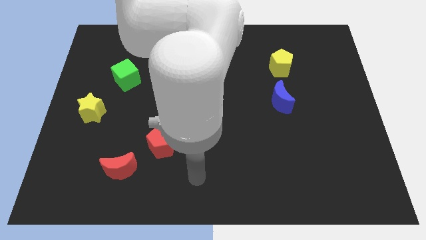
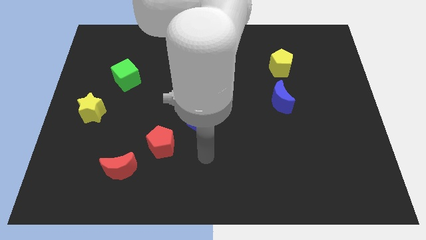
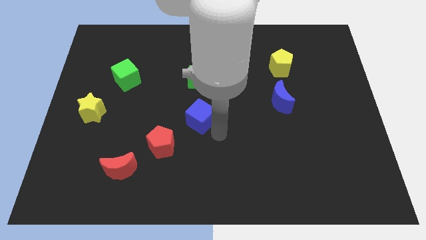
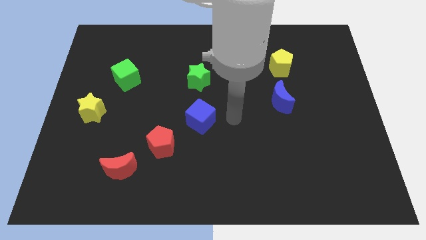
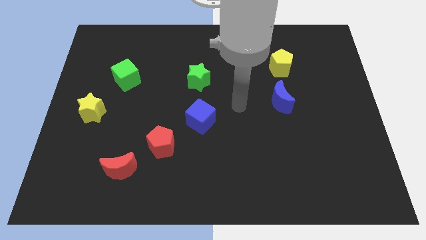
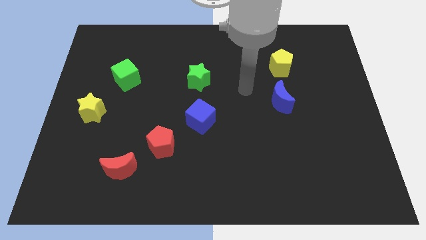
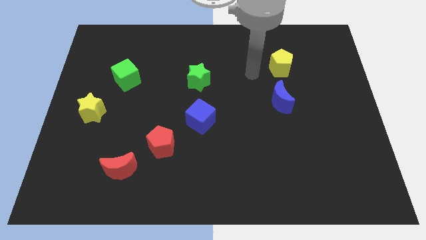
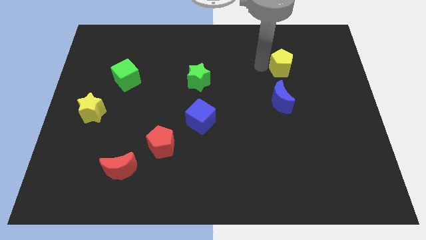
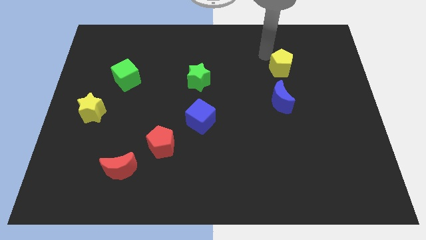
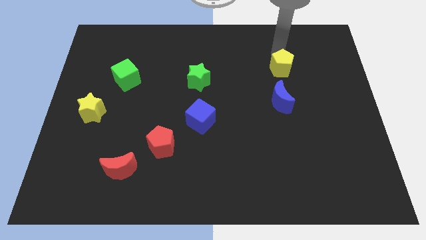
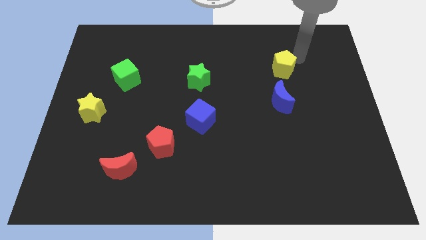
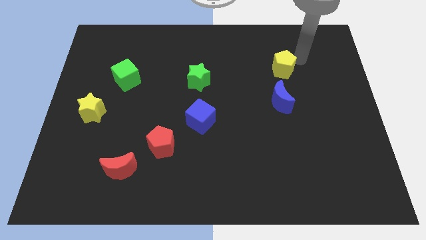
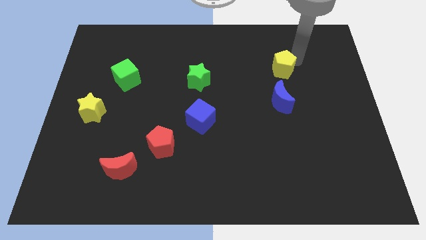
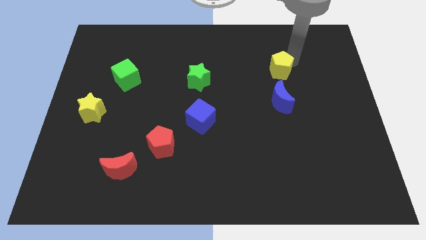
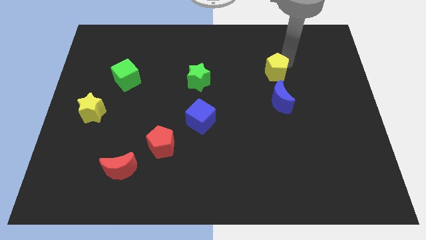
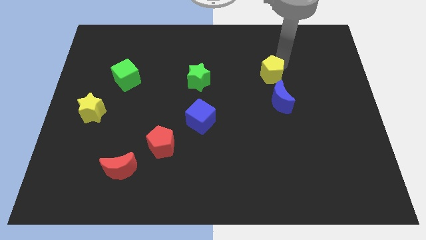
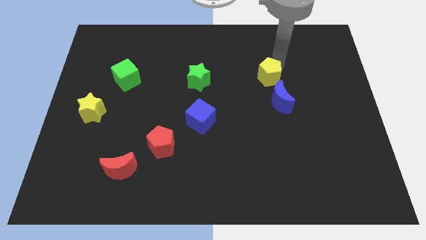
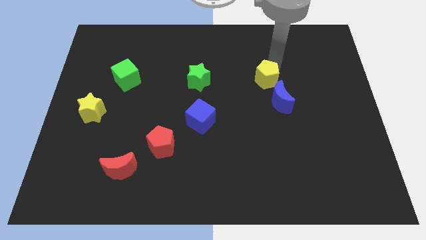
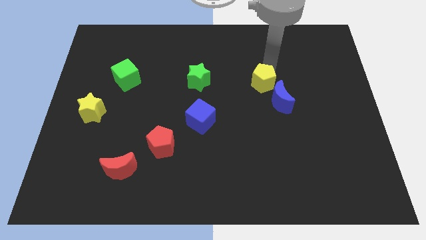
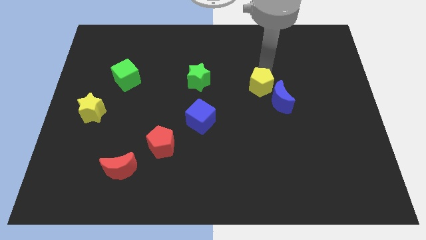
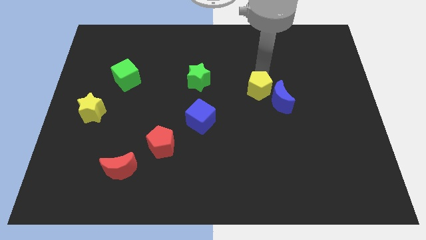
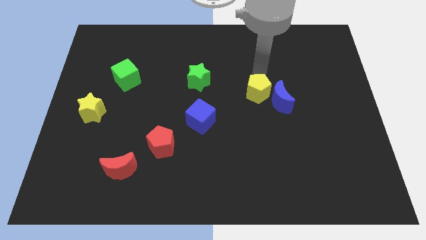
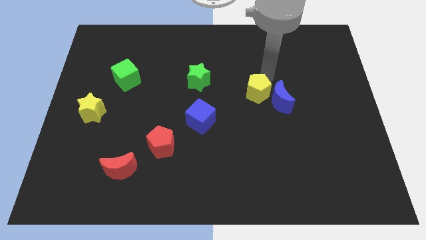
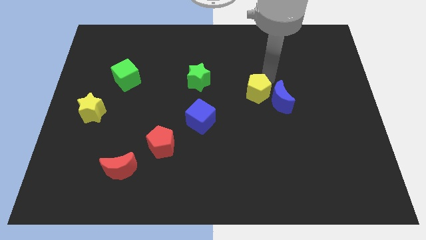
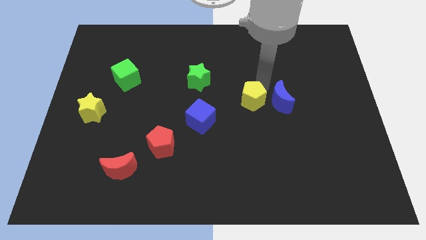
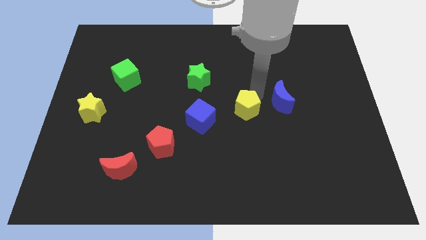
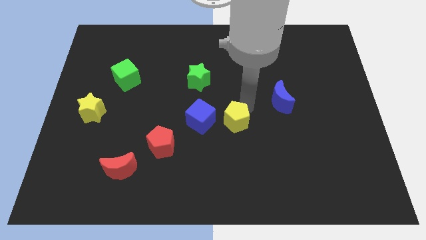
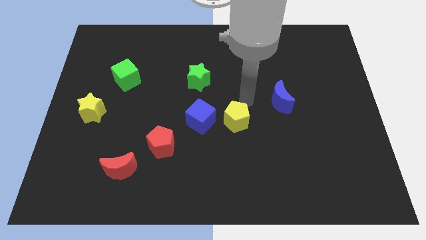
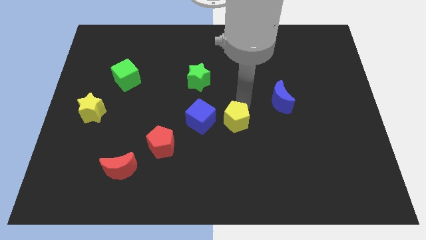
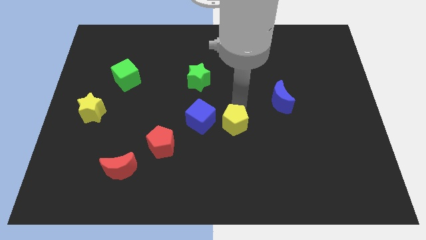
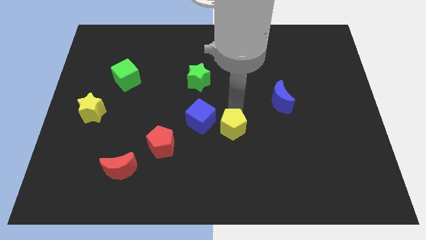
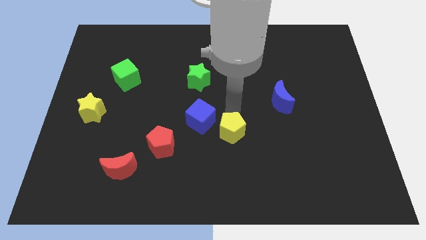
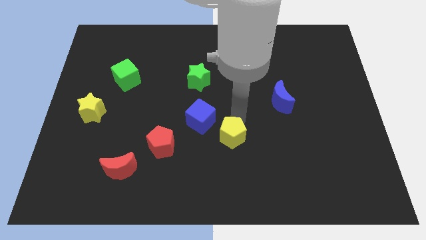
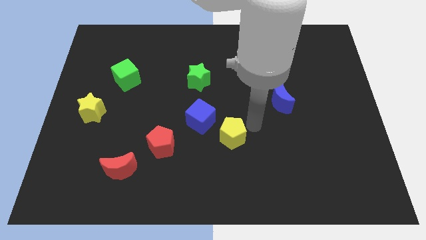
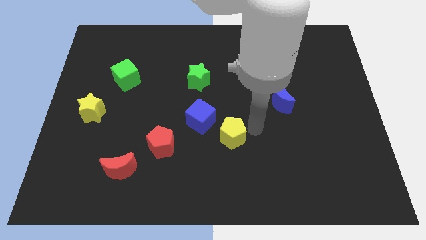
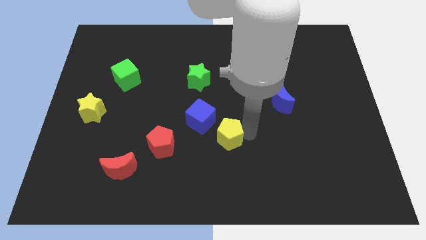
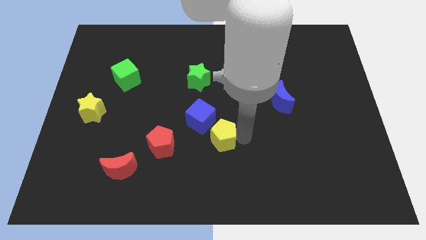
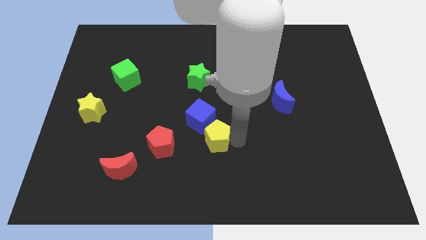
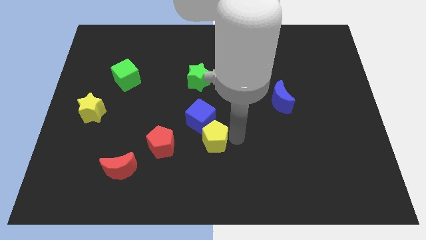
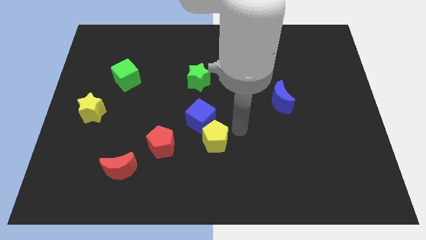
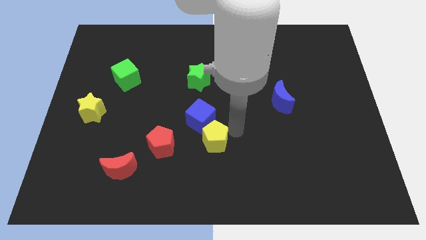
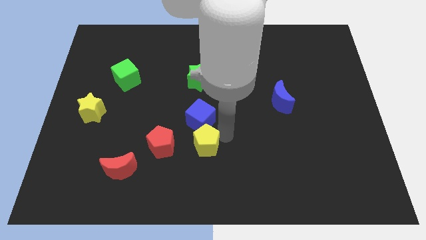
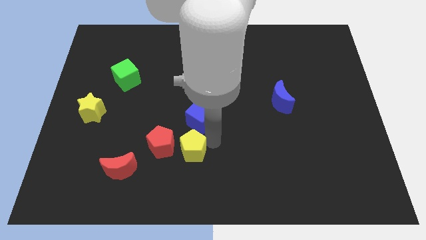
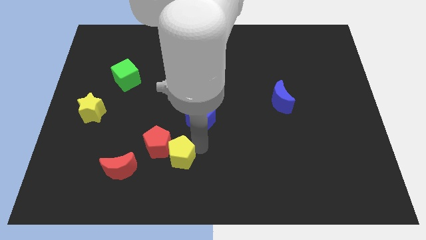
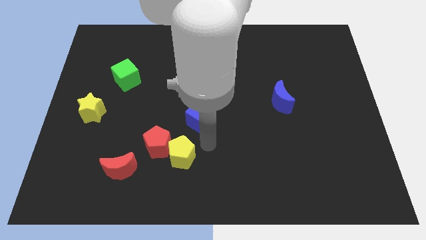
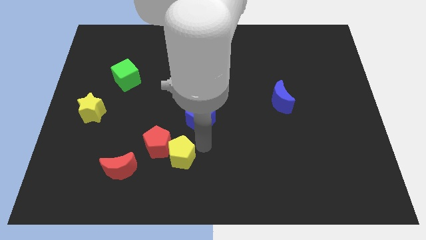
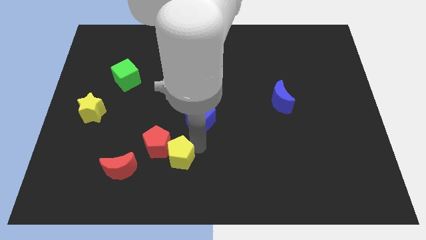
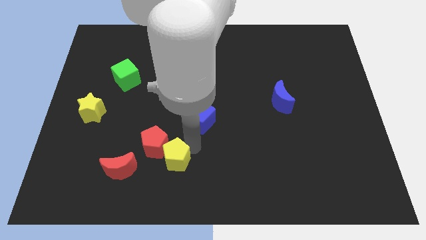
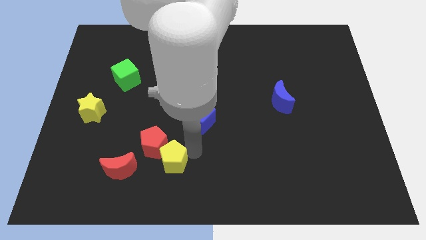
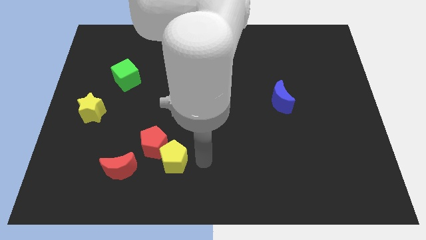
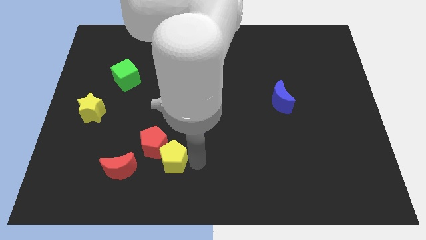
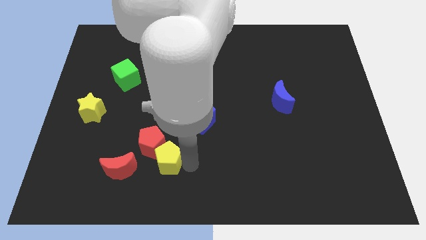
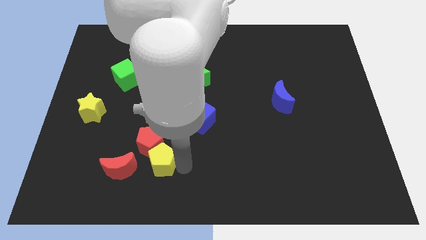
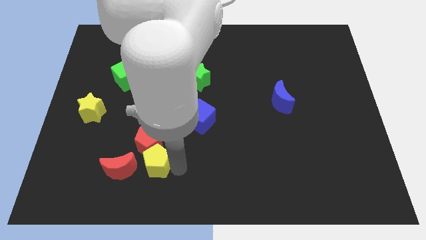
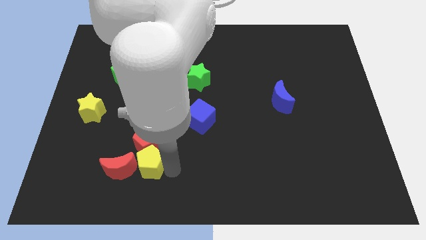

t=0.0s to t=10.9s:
push the yellow pentagon next to the red moon

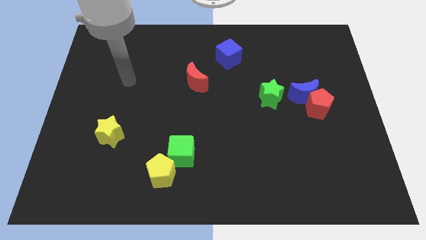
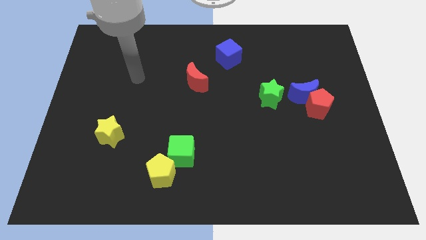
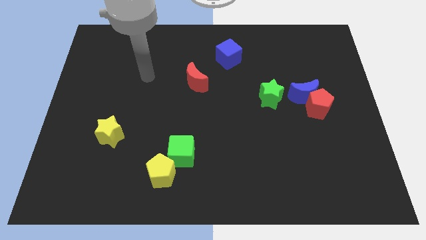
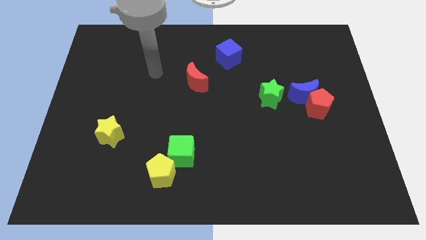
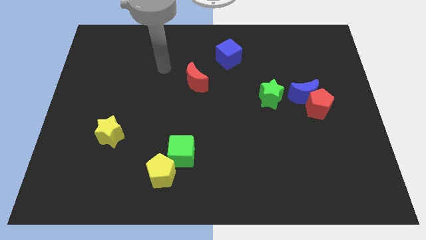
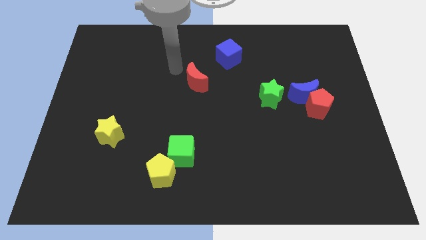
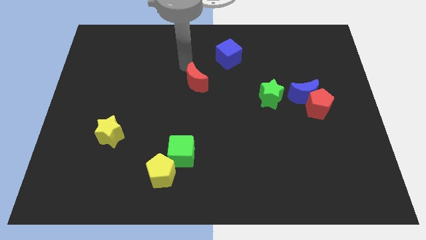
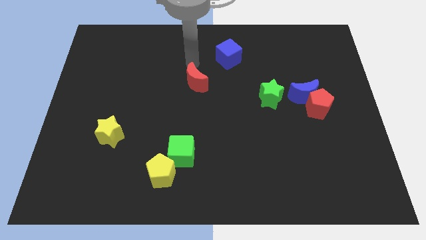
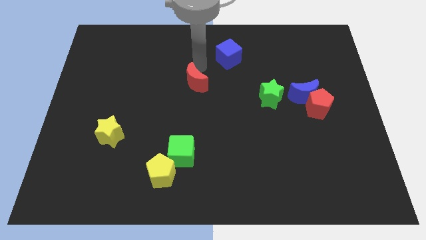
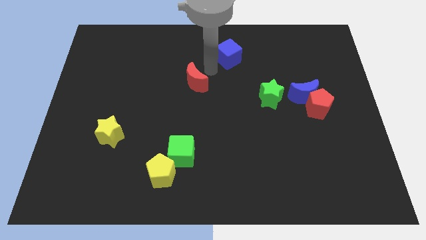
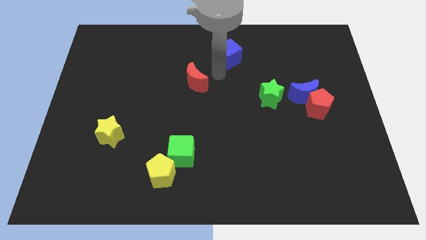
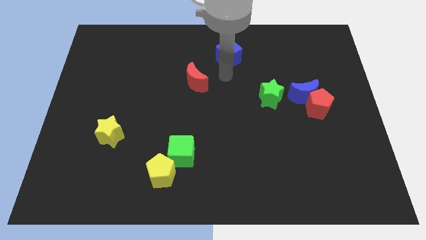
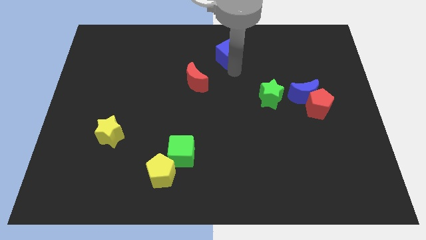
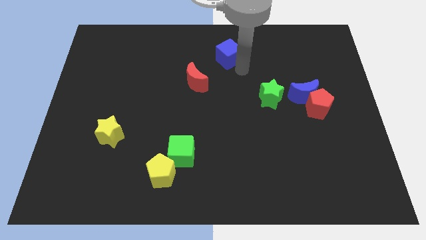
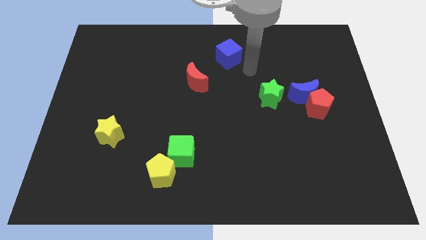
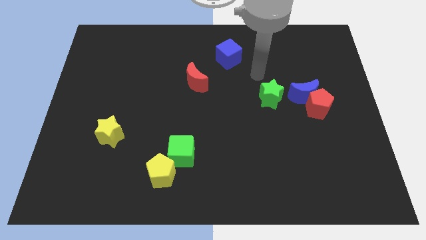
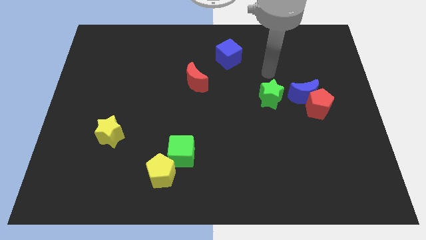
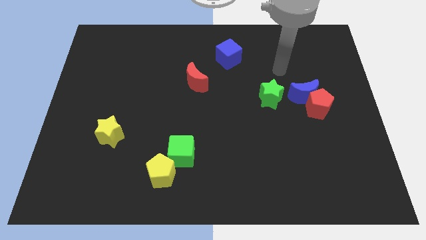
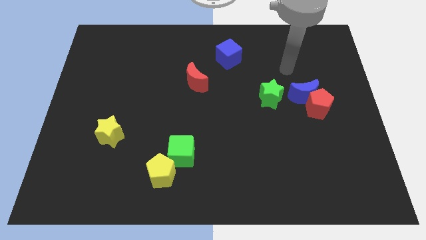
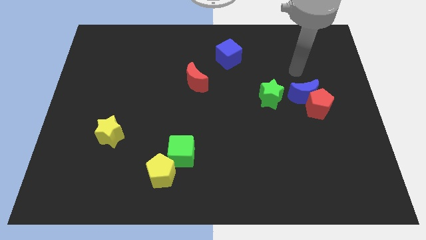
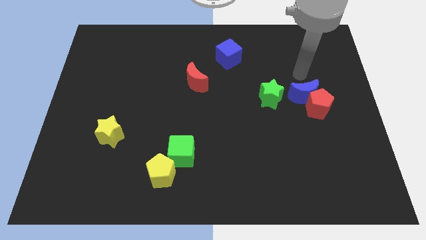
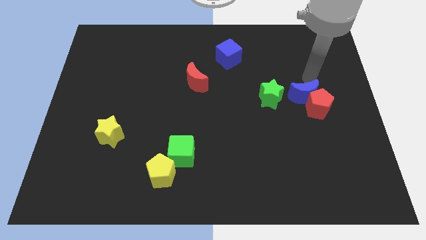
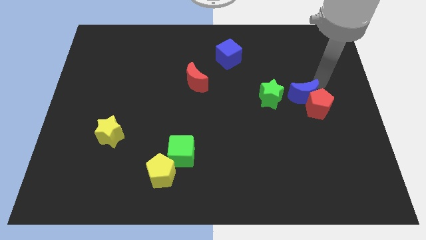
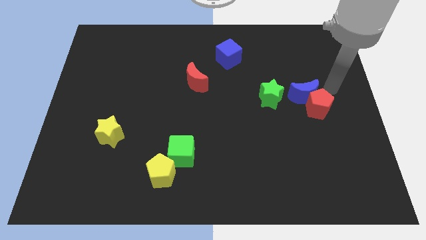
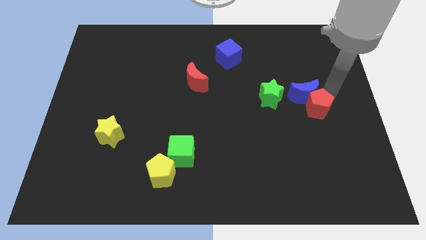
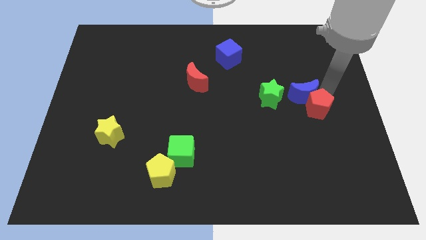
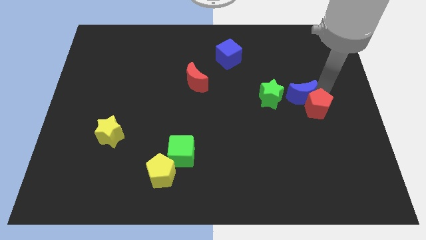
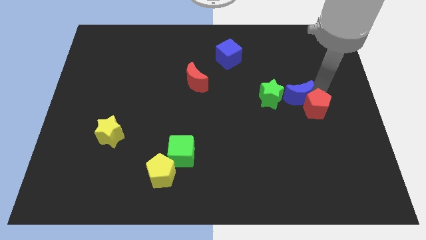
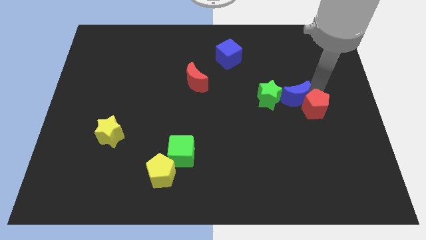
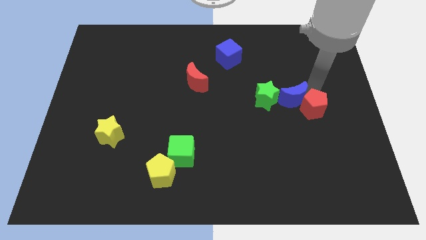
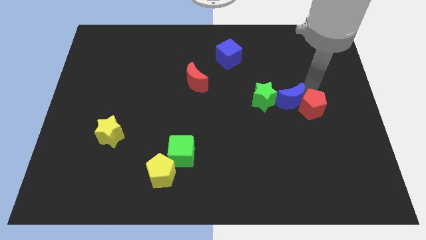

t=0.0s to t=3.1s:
push the blue moon to the green star

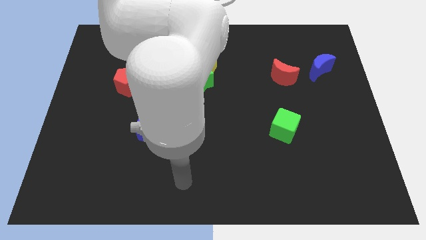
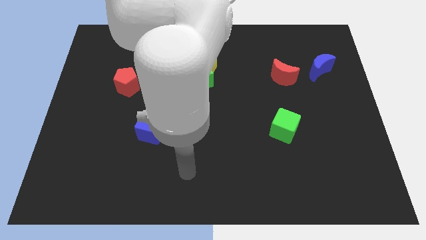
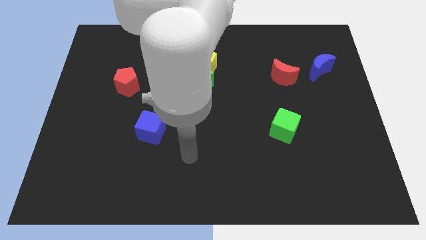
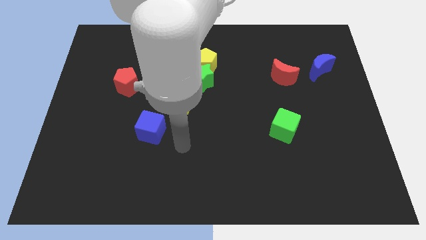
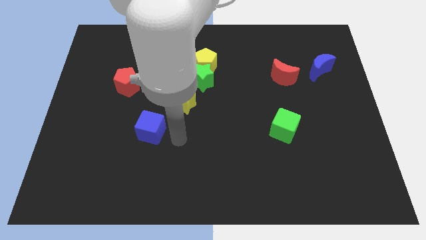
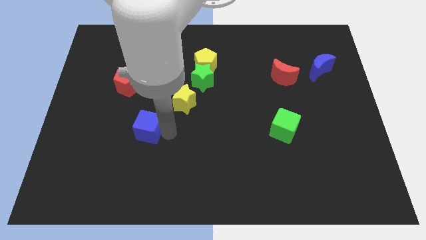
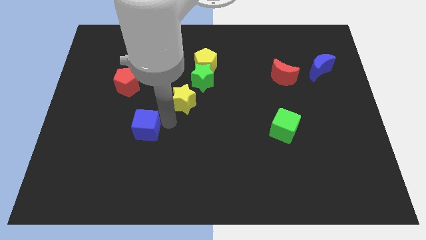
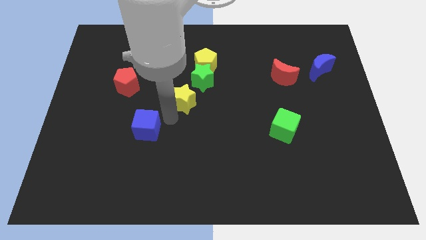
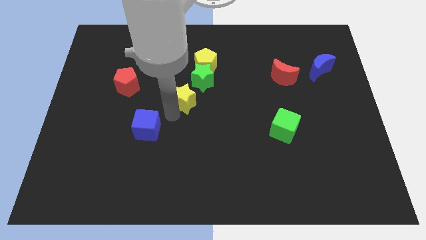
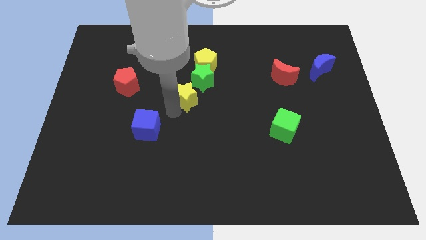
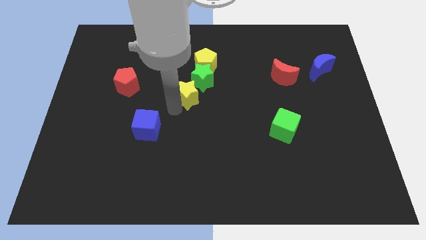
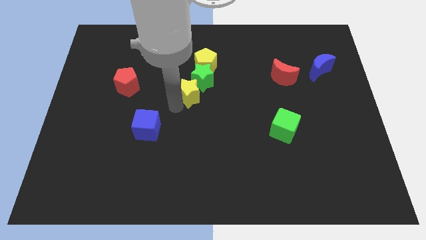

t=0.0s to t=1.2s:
slide the yellow star towards the green star
